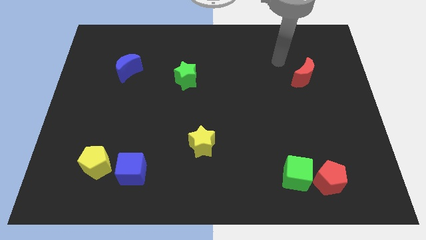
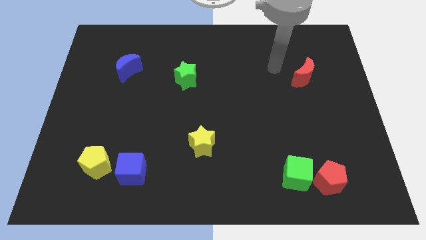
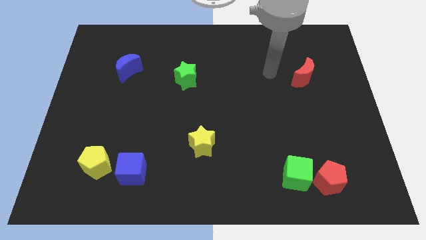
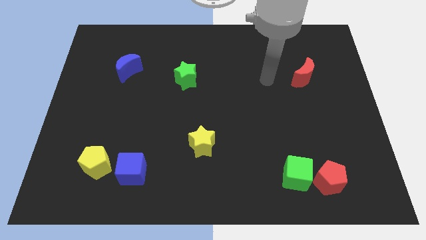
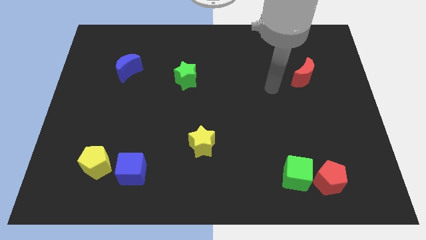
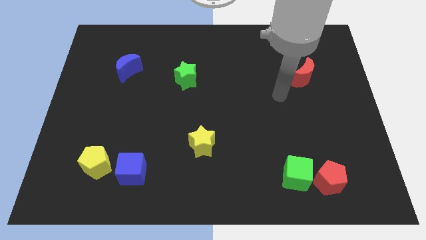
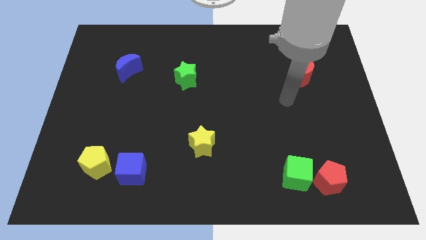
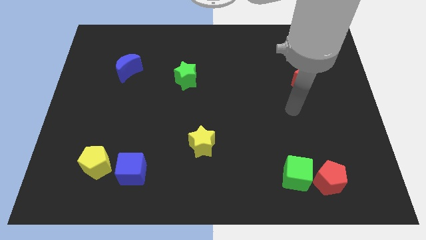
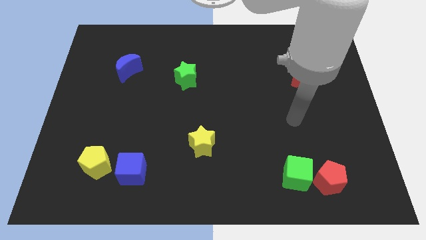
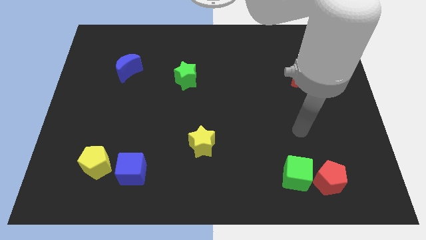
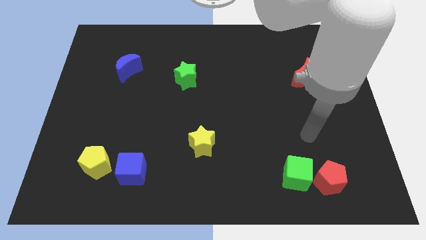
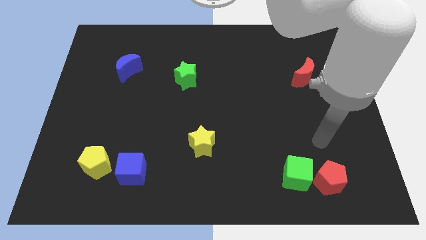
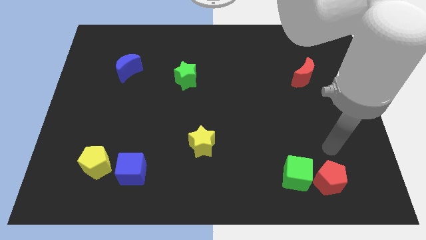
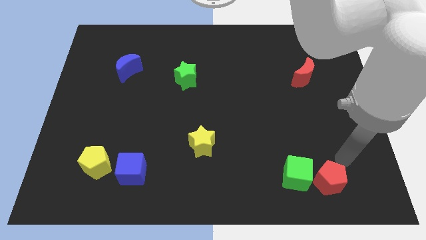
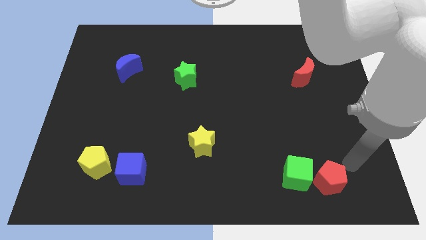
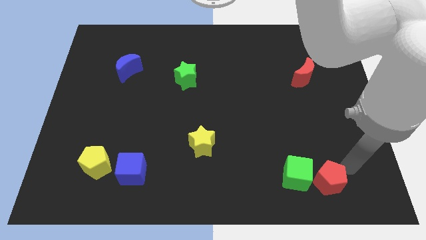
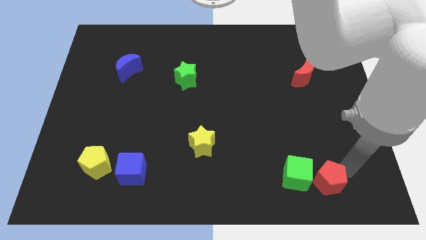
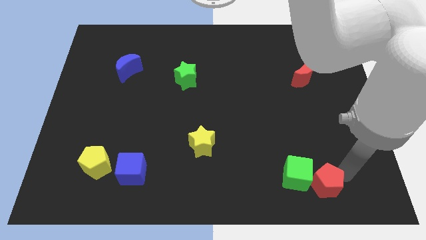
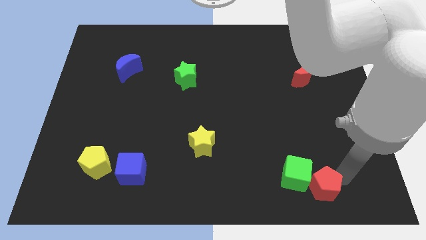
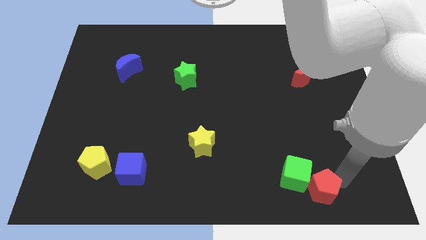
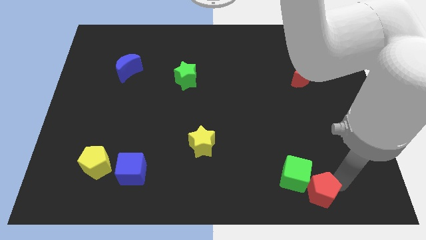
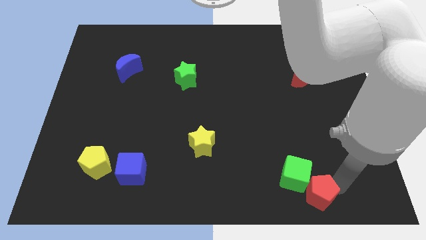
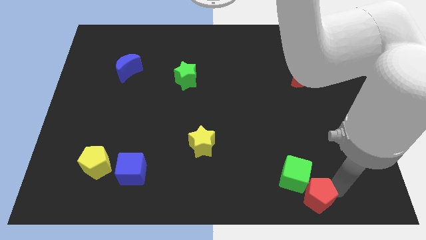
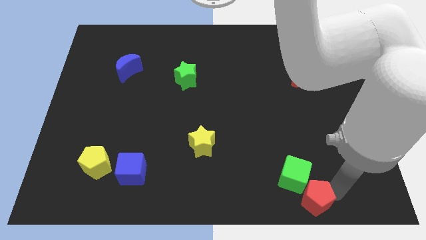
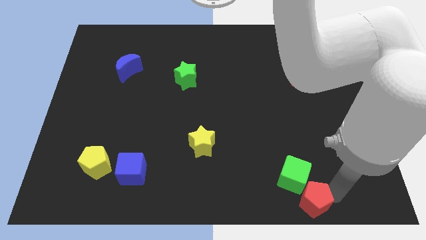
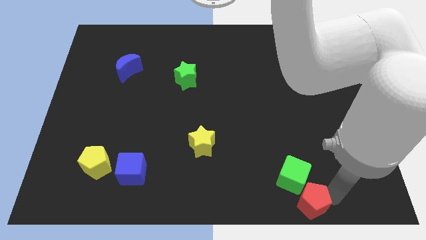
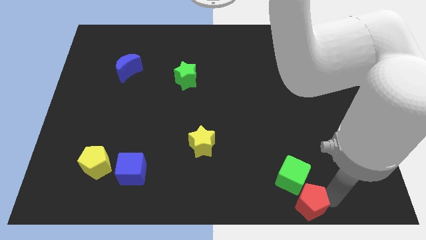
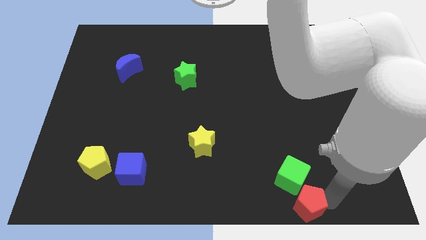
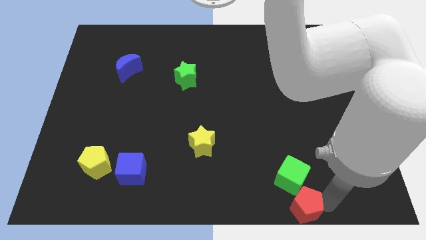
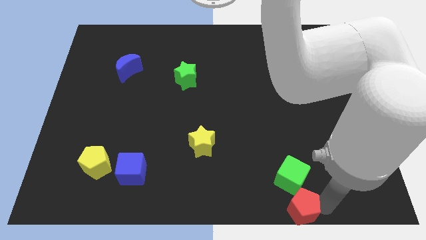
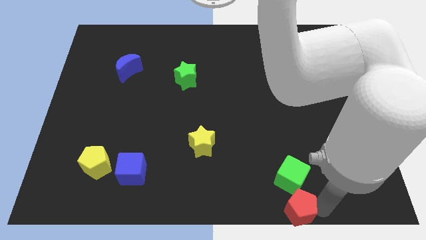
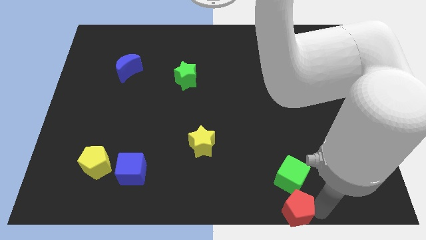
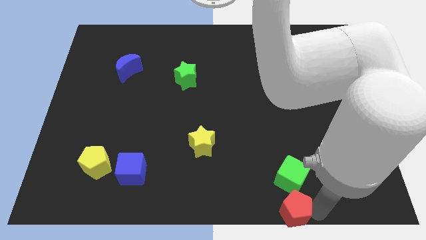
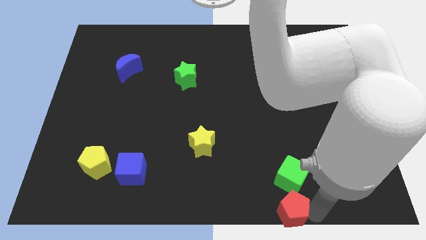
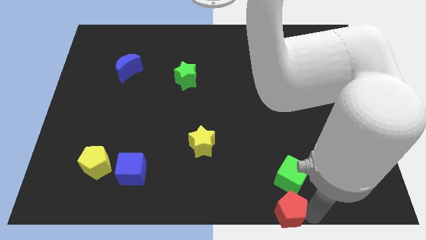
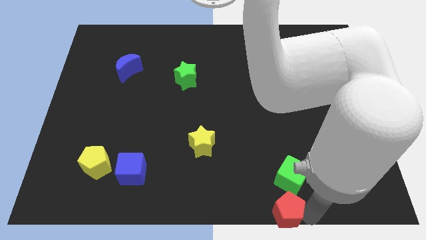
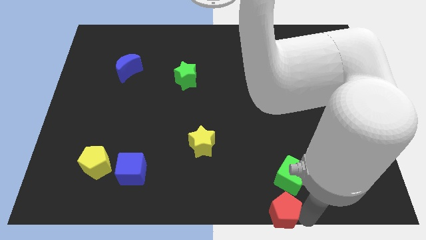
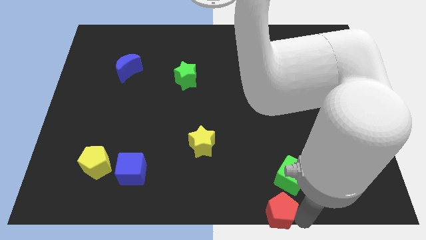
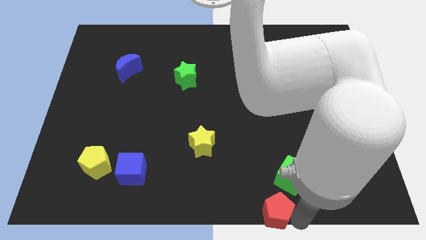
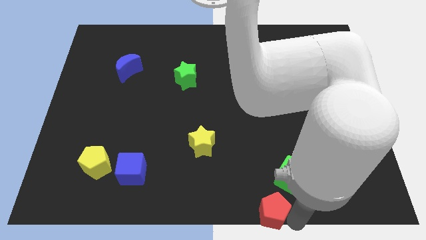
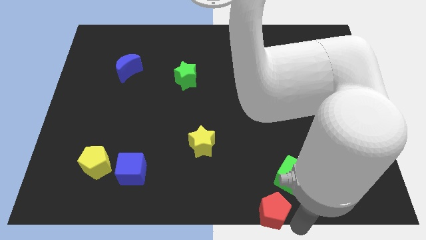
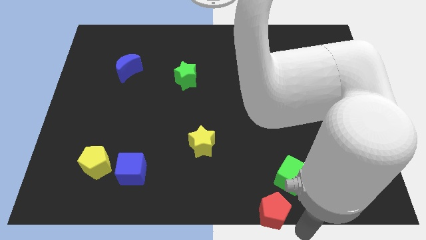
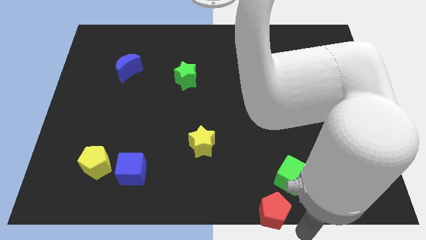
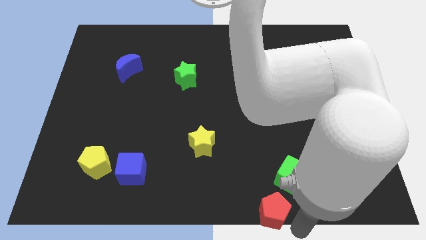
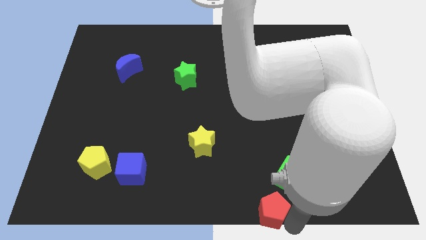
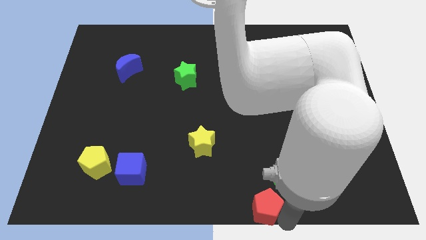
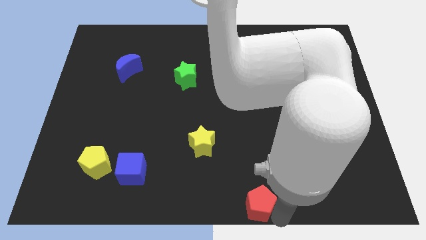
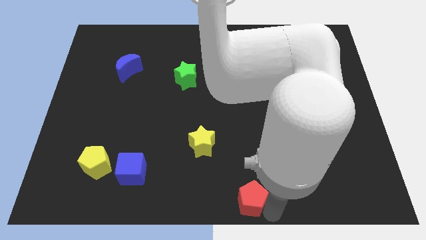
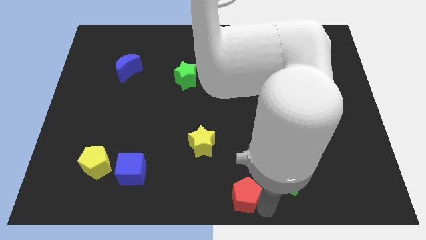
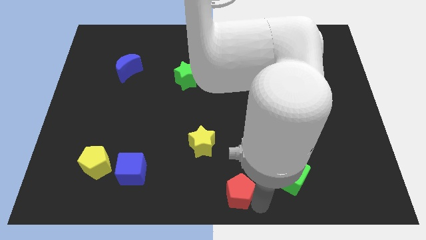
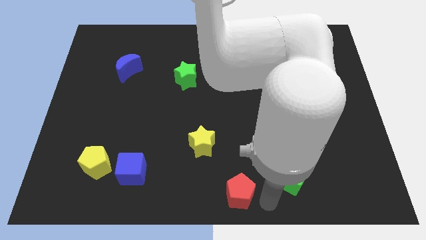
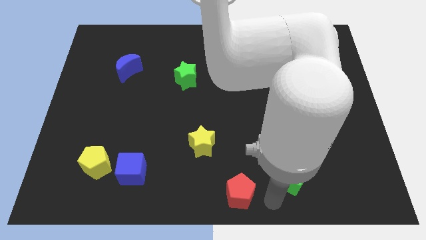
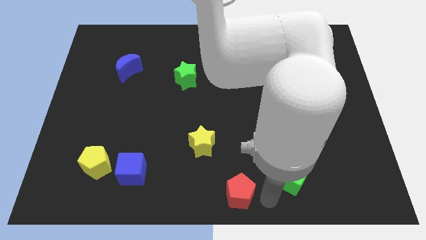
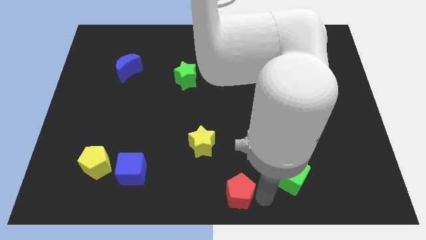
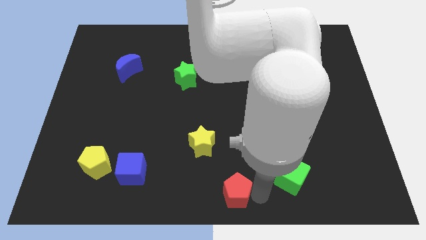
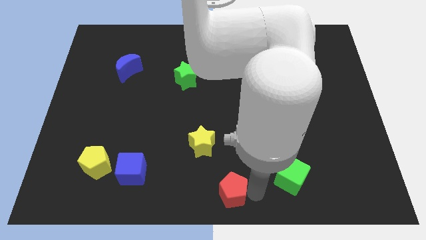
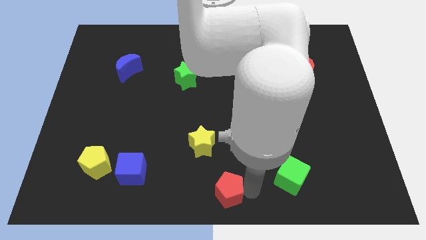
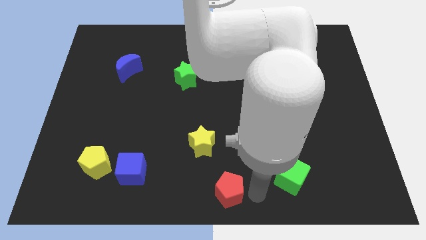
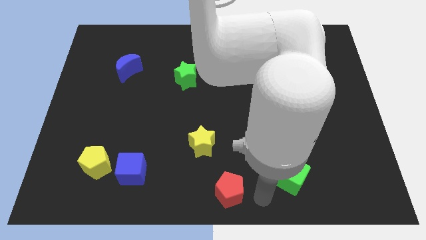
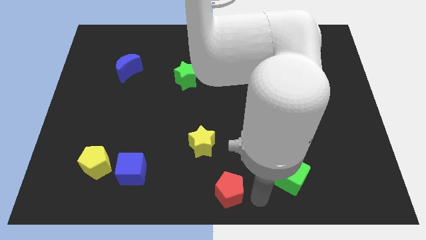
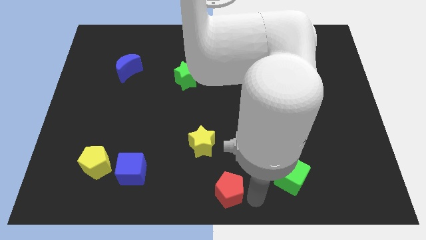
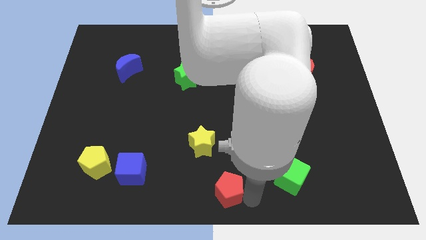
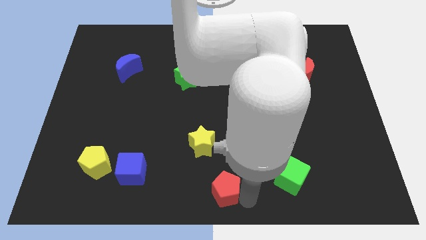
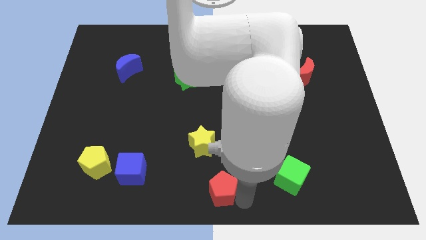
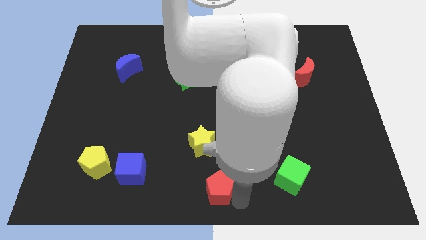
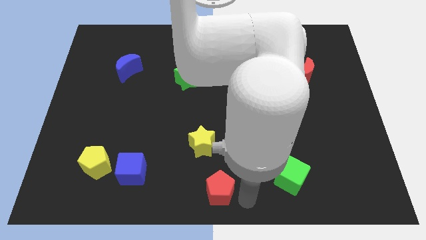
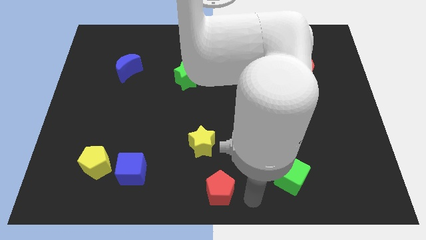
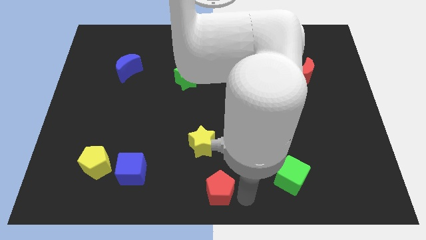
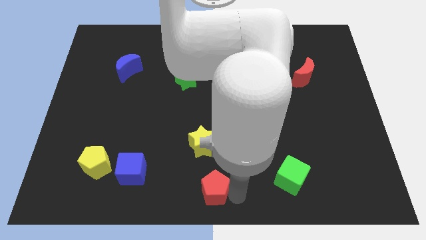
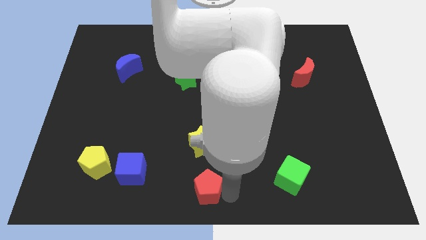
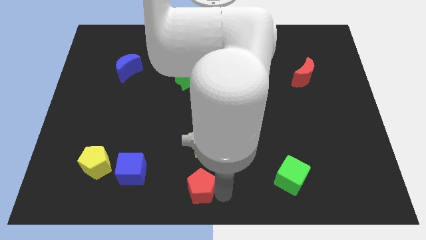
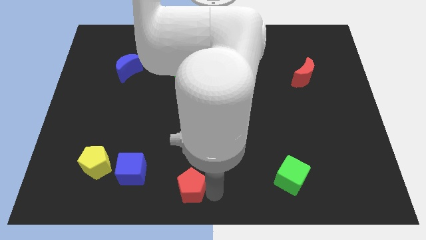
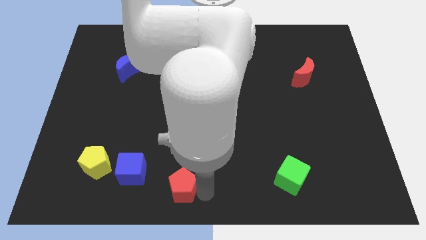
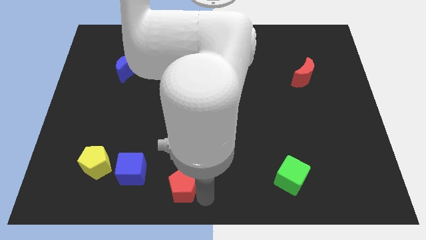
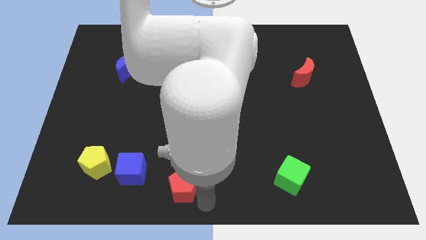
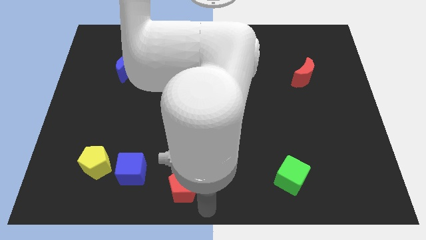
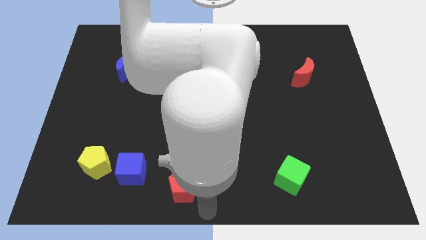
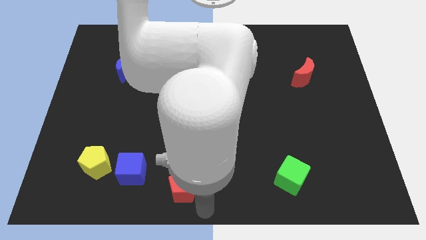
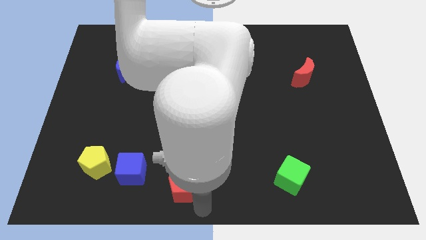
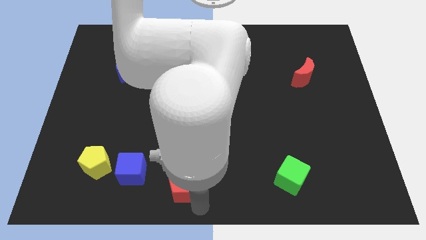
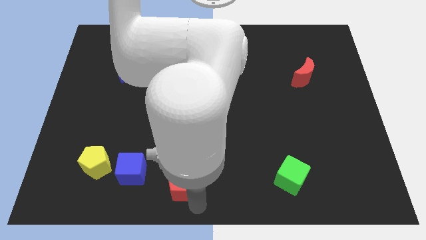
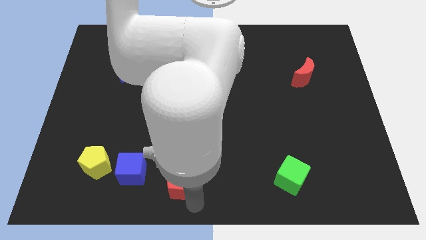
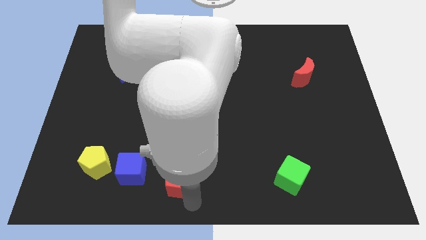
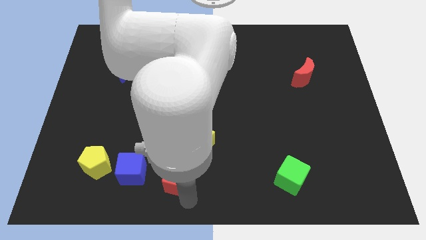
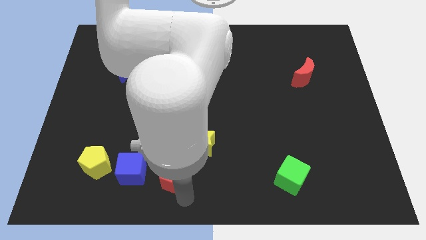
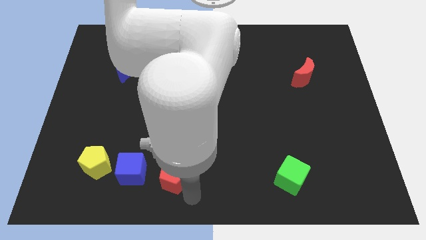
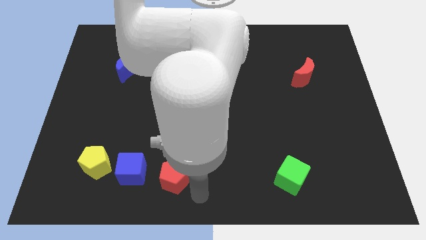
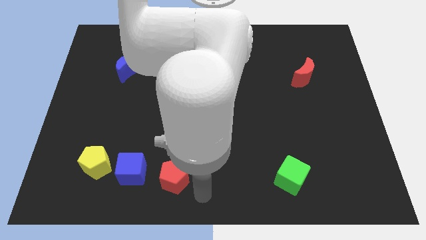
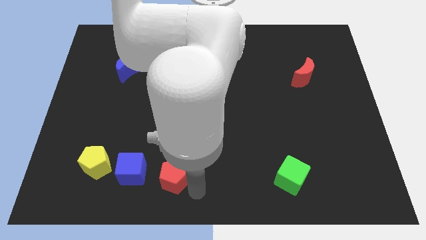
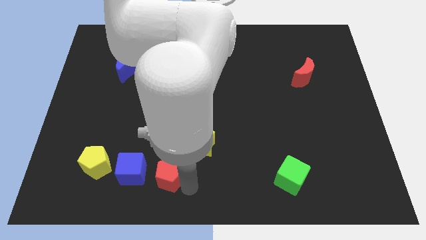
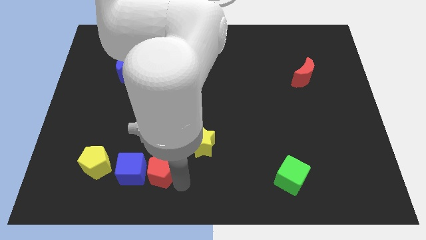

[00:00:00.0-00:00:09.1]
push the red pentagon to the right side of the yellow pentagon
